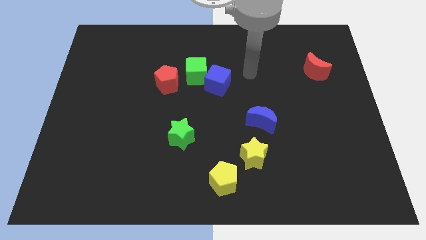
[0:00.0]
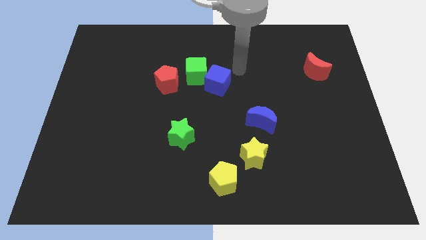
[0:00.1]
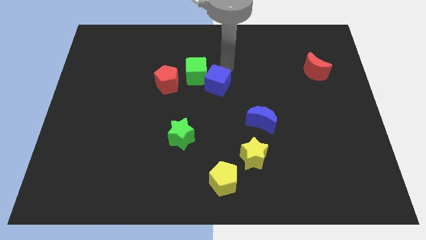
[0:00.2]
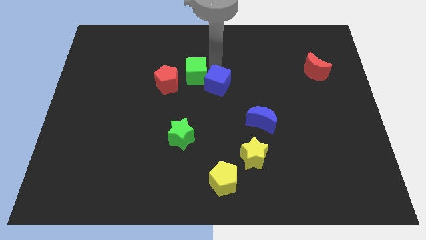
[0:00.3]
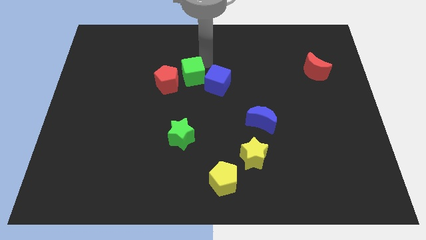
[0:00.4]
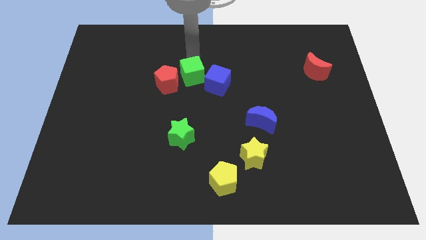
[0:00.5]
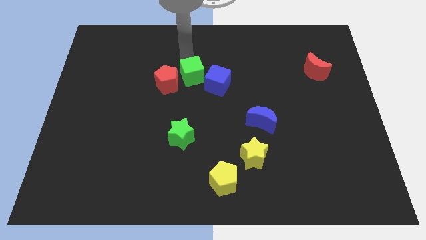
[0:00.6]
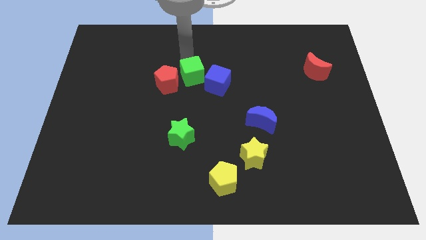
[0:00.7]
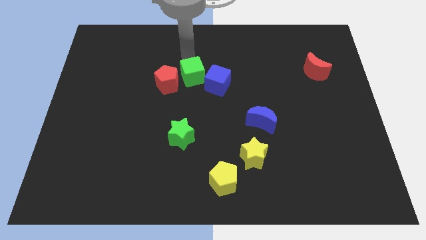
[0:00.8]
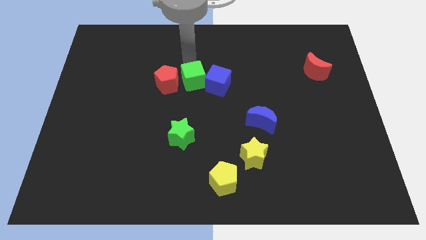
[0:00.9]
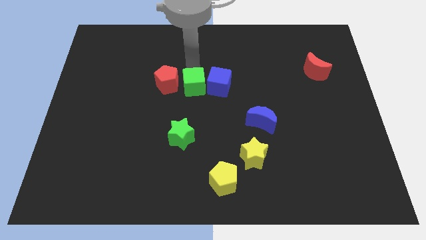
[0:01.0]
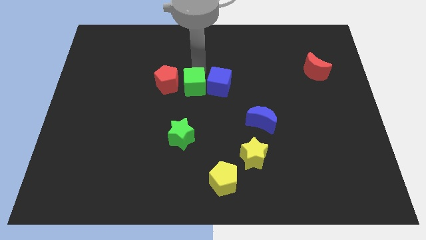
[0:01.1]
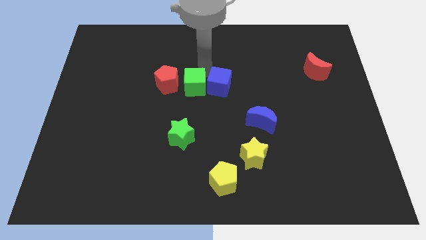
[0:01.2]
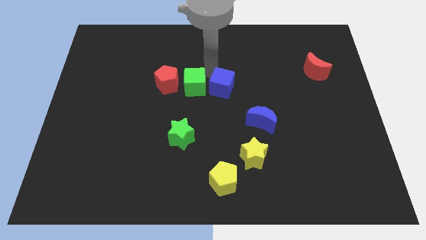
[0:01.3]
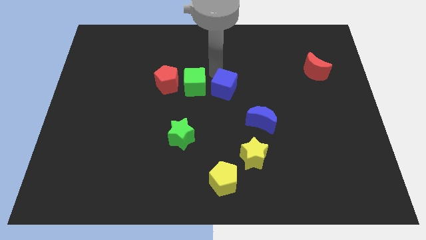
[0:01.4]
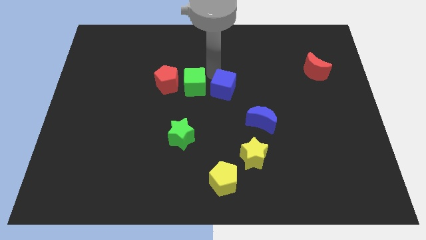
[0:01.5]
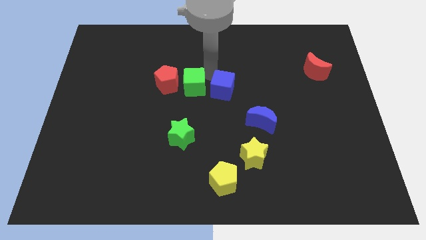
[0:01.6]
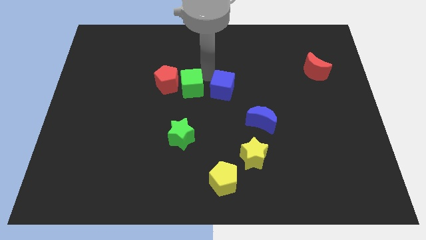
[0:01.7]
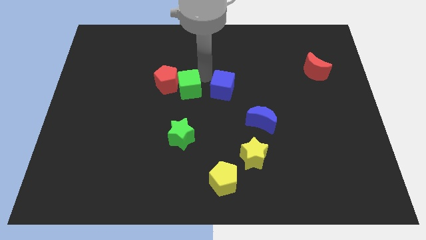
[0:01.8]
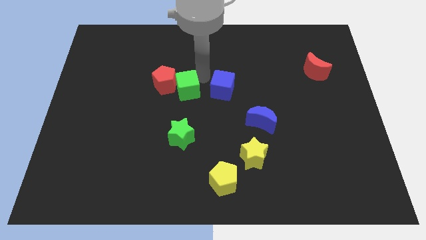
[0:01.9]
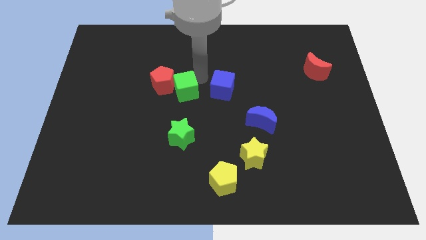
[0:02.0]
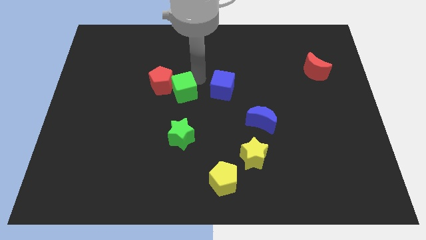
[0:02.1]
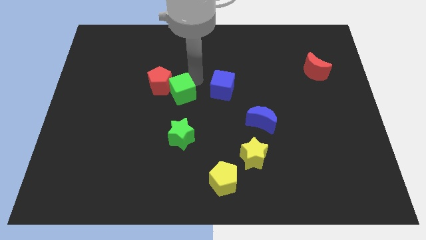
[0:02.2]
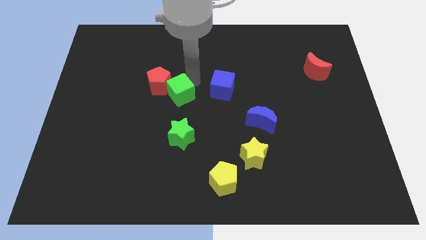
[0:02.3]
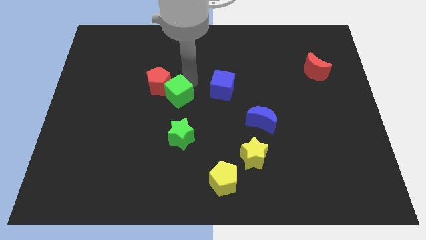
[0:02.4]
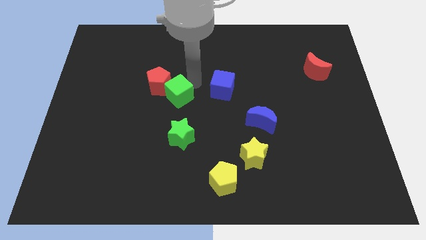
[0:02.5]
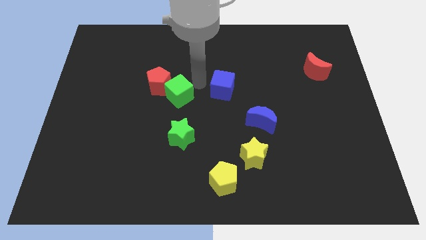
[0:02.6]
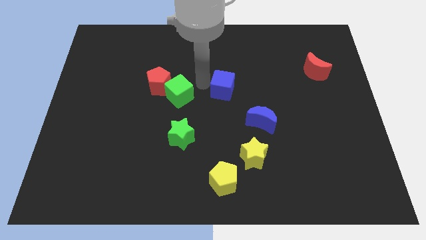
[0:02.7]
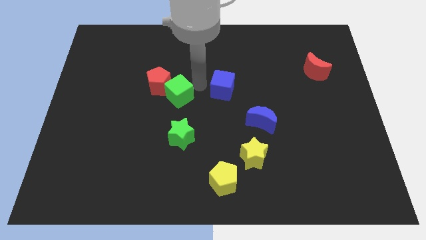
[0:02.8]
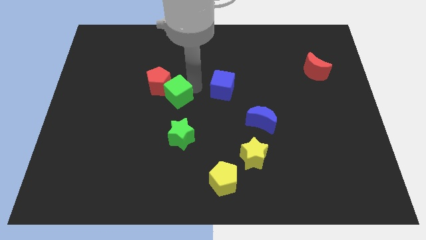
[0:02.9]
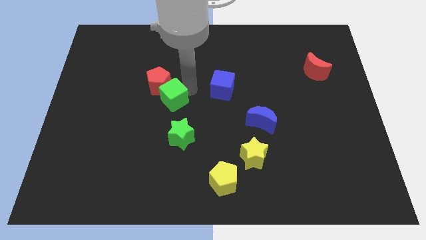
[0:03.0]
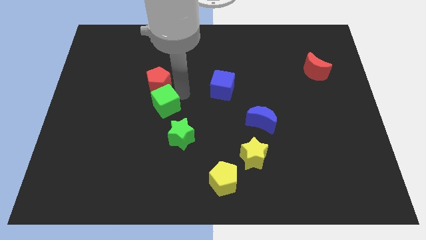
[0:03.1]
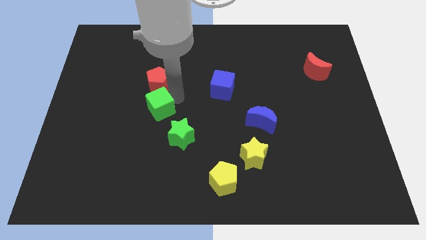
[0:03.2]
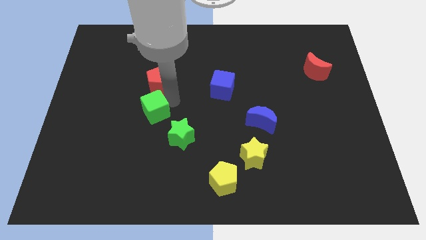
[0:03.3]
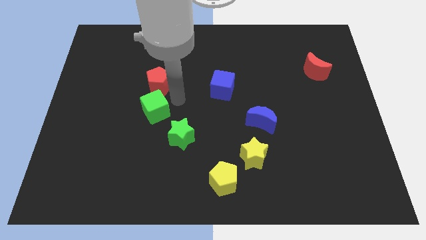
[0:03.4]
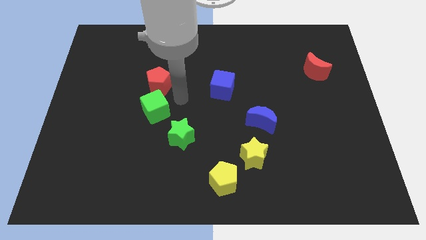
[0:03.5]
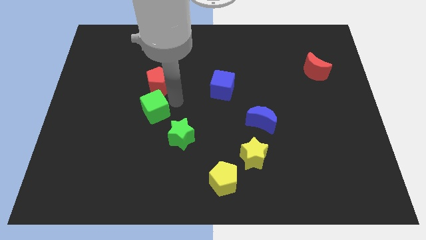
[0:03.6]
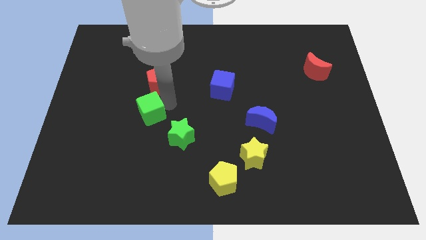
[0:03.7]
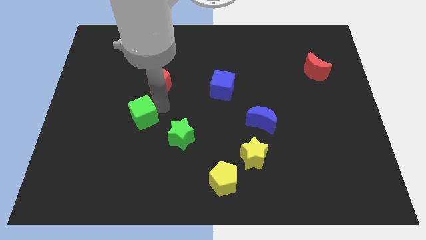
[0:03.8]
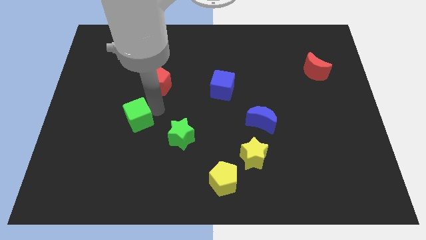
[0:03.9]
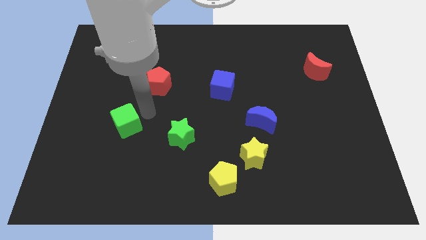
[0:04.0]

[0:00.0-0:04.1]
push the green cube downwards and left

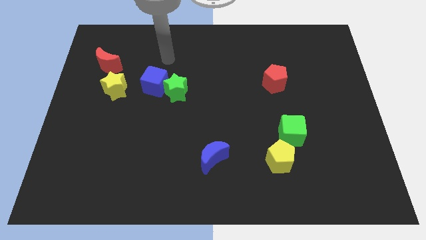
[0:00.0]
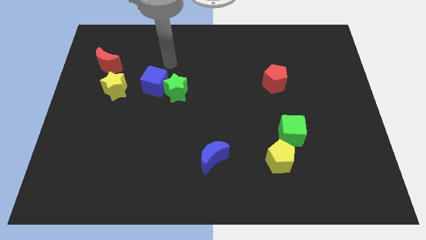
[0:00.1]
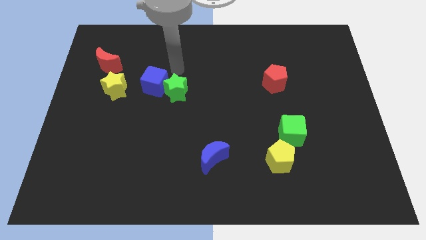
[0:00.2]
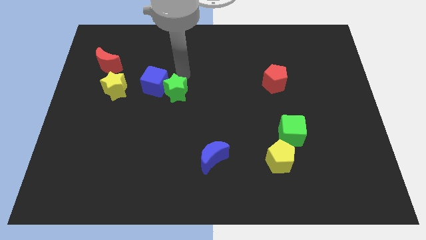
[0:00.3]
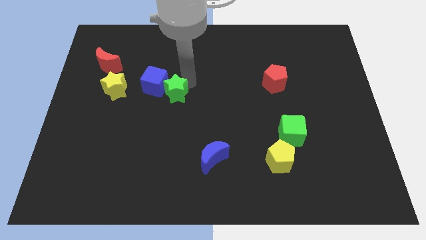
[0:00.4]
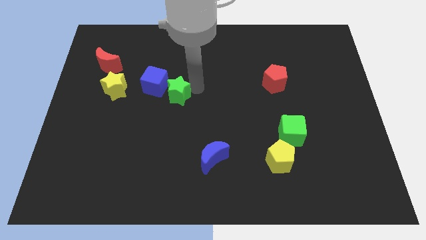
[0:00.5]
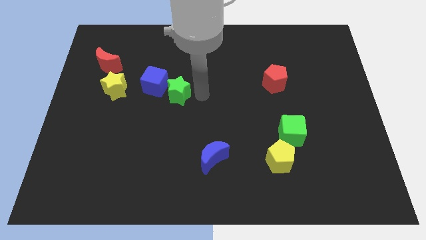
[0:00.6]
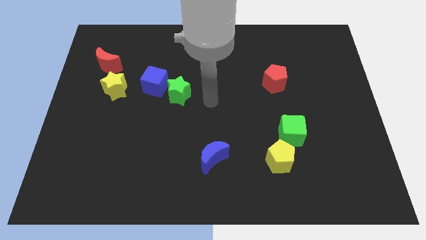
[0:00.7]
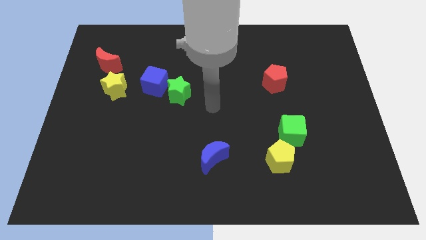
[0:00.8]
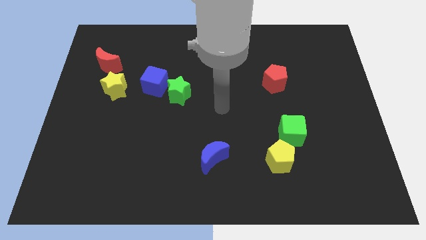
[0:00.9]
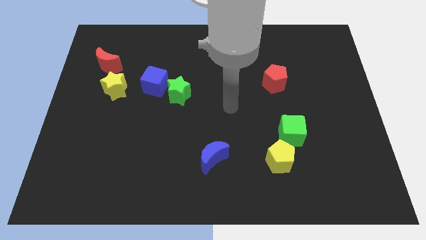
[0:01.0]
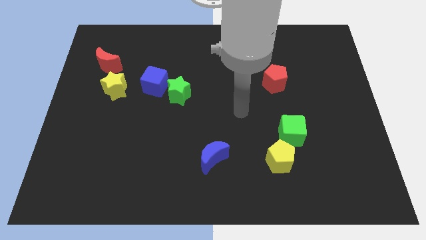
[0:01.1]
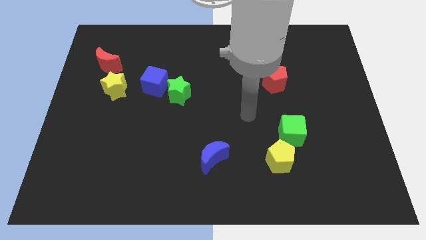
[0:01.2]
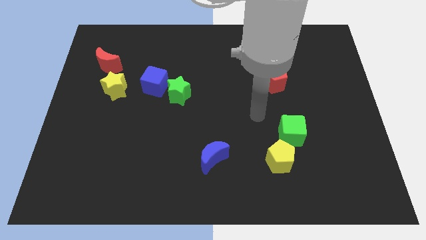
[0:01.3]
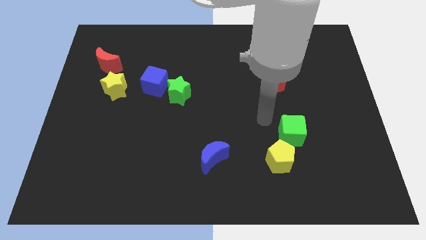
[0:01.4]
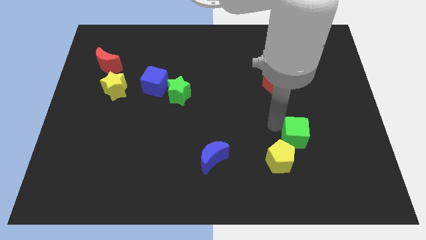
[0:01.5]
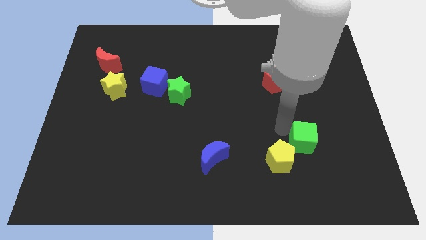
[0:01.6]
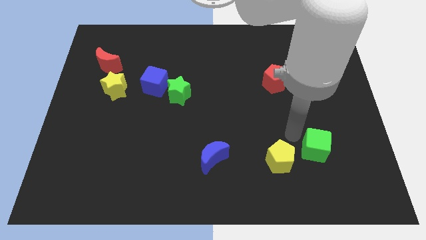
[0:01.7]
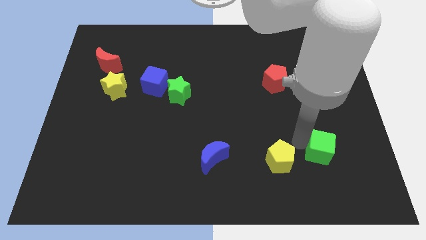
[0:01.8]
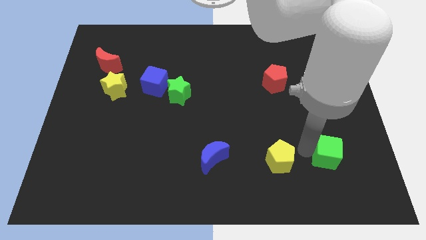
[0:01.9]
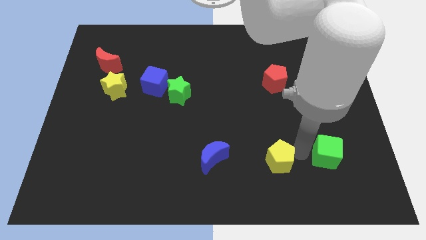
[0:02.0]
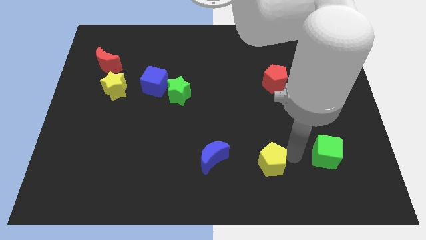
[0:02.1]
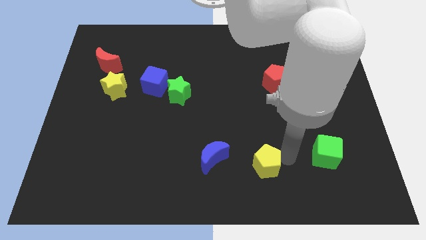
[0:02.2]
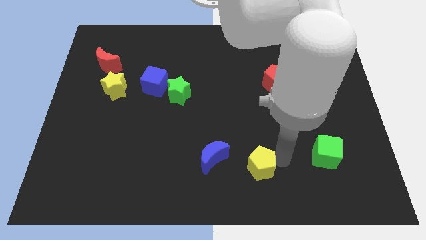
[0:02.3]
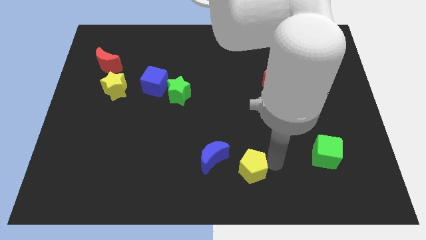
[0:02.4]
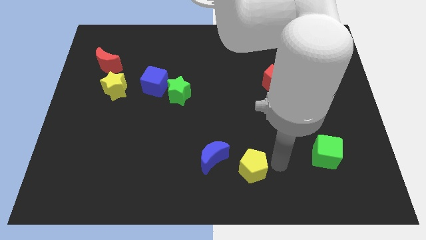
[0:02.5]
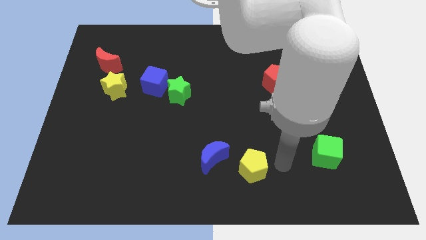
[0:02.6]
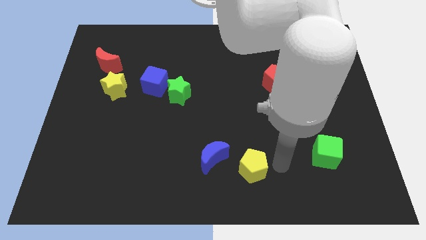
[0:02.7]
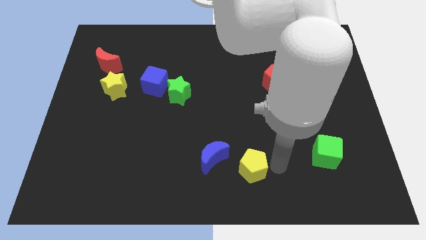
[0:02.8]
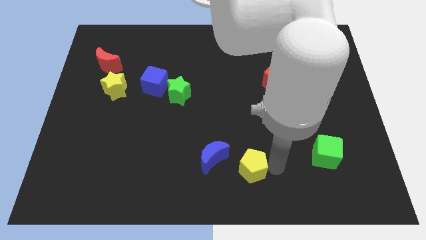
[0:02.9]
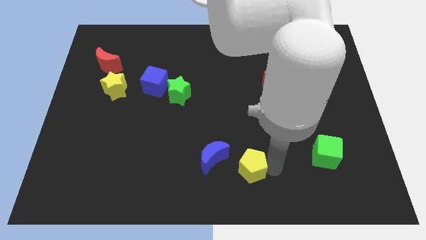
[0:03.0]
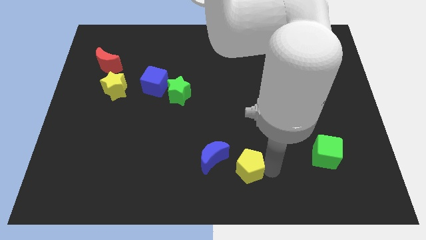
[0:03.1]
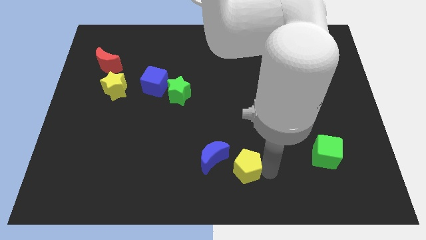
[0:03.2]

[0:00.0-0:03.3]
slide the yellow pentagon left a bit

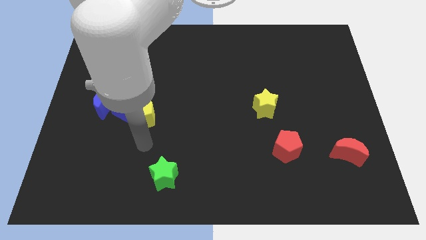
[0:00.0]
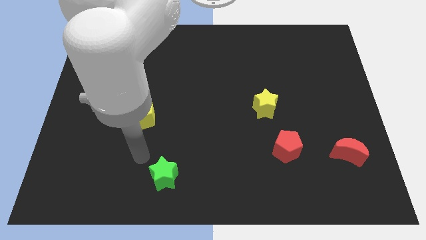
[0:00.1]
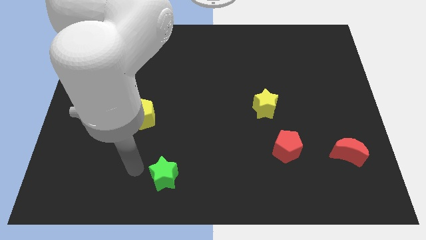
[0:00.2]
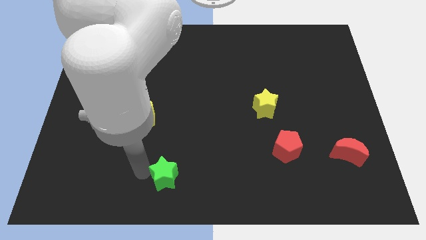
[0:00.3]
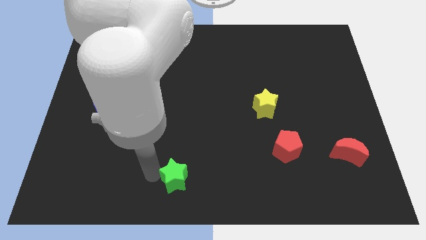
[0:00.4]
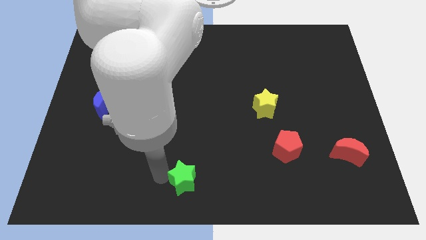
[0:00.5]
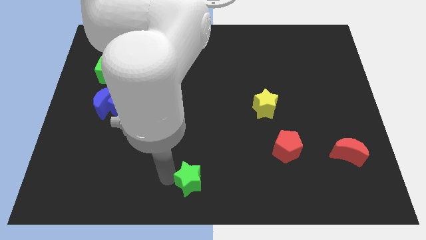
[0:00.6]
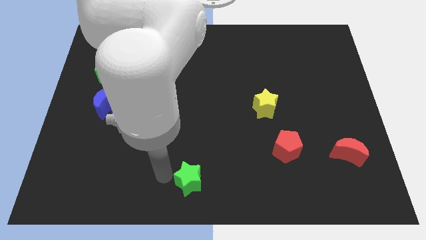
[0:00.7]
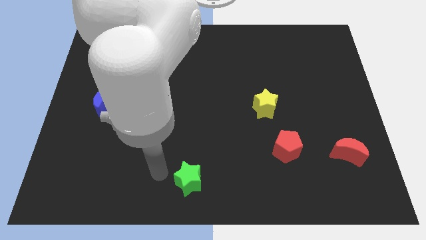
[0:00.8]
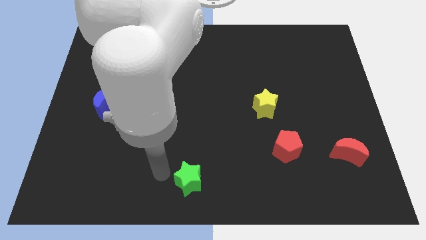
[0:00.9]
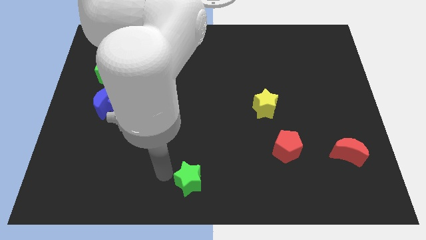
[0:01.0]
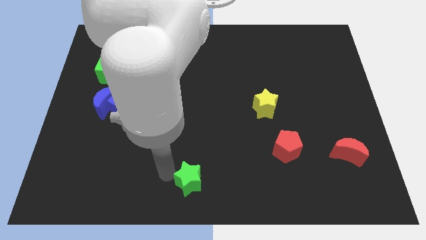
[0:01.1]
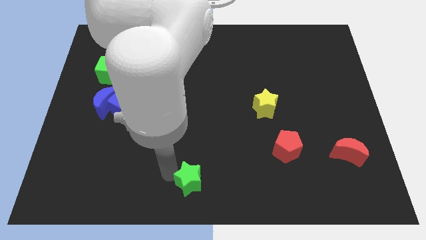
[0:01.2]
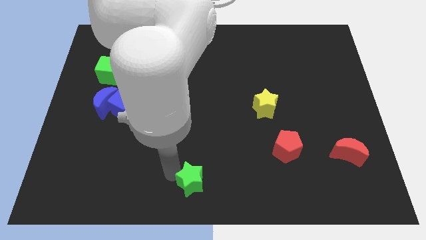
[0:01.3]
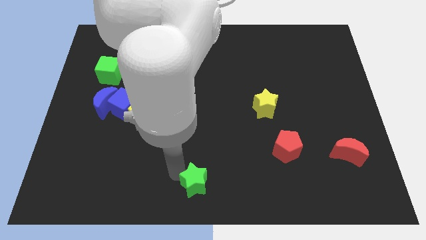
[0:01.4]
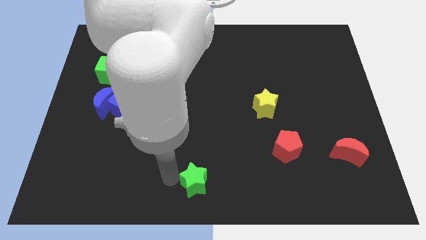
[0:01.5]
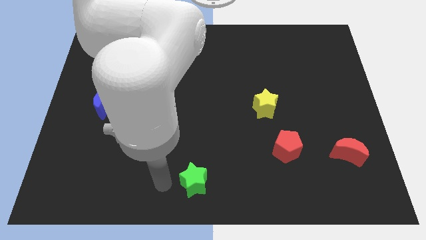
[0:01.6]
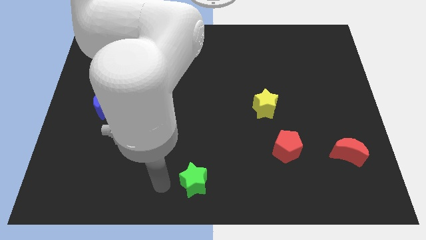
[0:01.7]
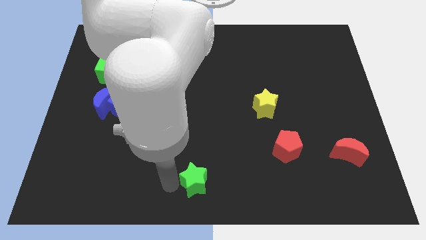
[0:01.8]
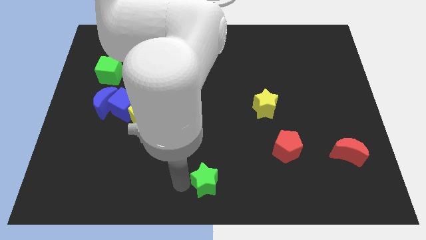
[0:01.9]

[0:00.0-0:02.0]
move the green star a bit to the right
